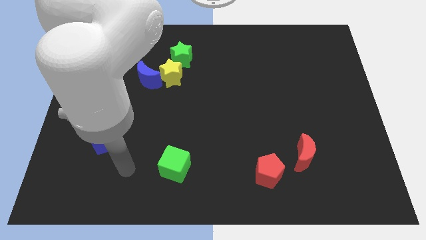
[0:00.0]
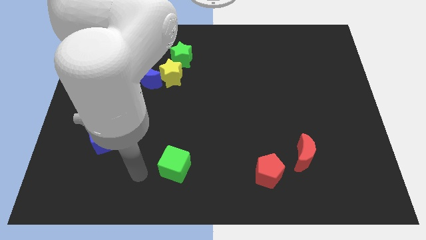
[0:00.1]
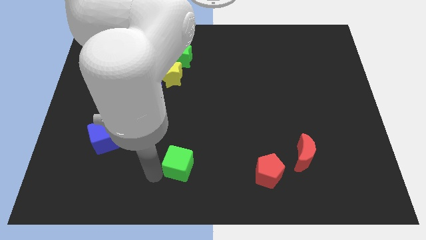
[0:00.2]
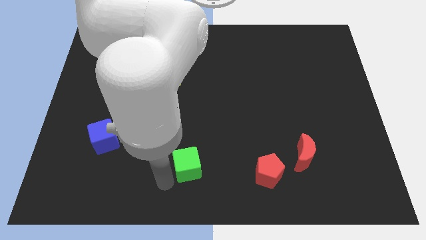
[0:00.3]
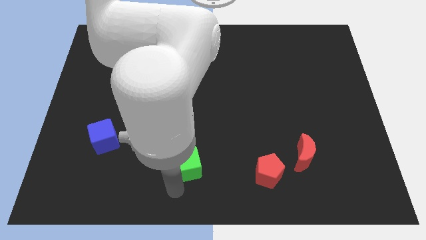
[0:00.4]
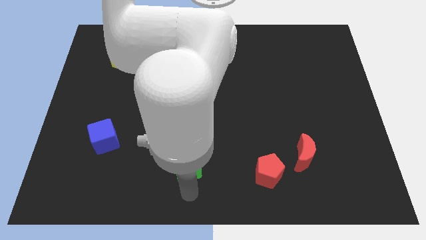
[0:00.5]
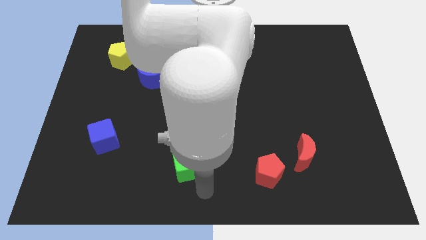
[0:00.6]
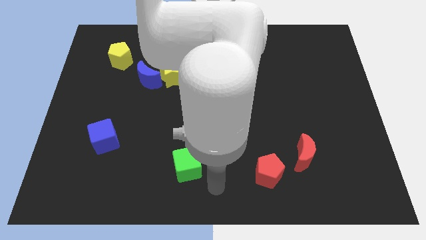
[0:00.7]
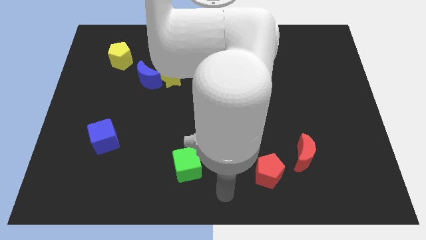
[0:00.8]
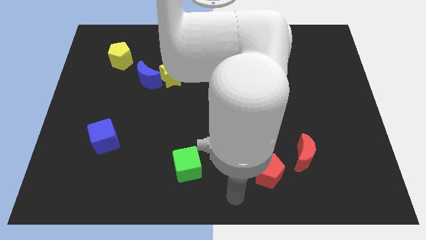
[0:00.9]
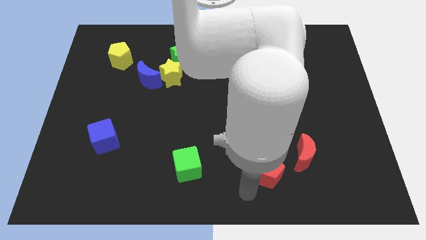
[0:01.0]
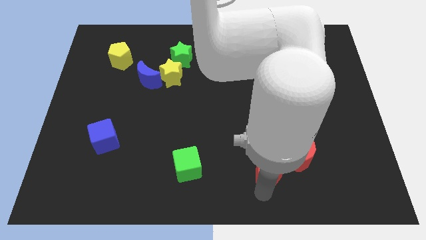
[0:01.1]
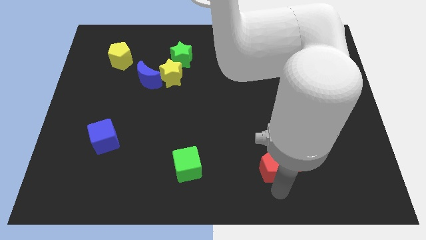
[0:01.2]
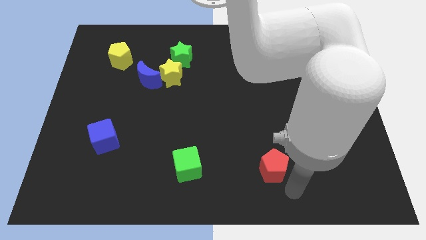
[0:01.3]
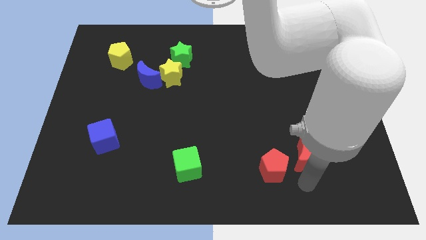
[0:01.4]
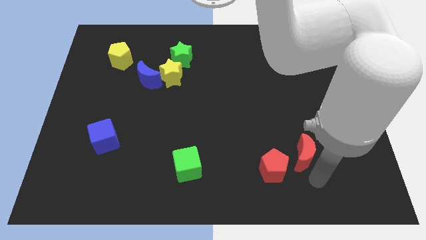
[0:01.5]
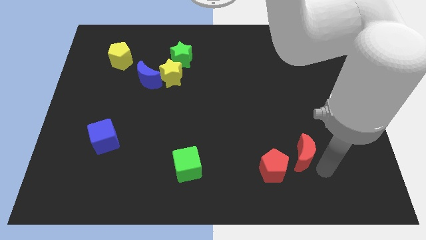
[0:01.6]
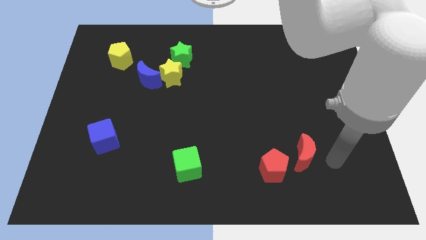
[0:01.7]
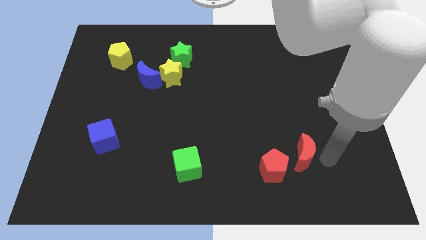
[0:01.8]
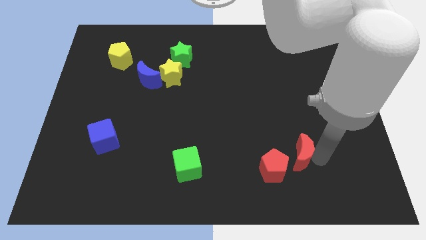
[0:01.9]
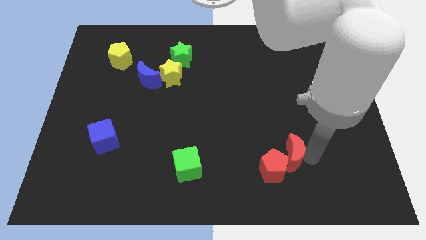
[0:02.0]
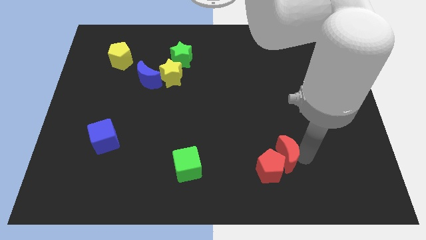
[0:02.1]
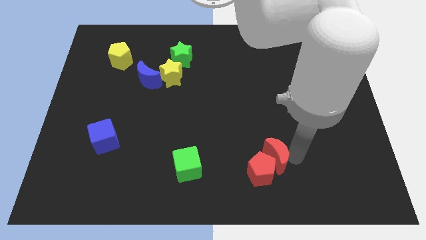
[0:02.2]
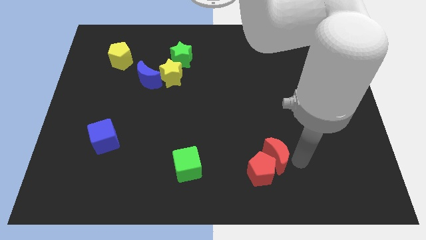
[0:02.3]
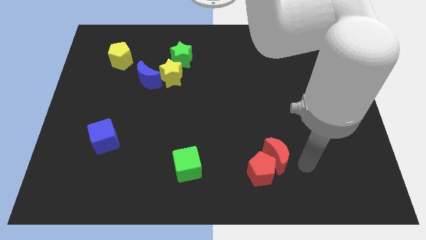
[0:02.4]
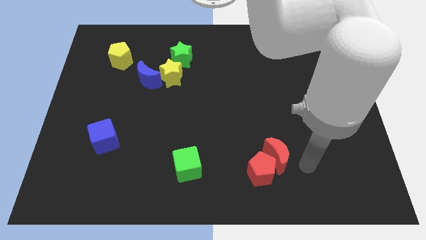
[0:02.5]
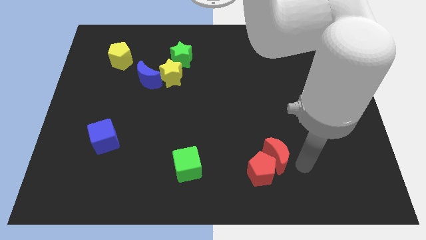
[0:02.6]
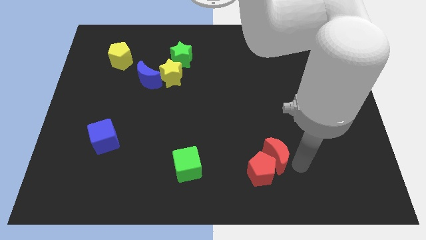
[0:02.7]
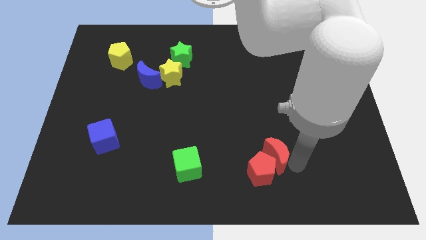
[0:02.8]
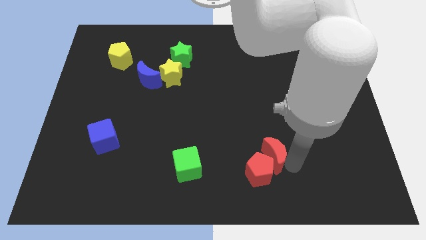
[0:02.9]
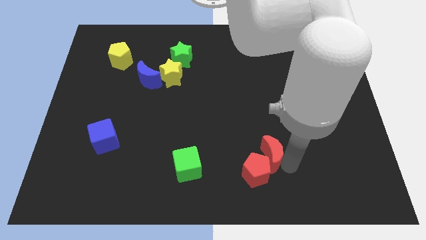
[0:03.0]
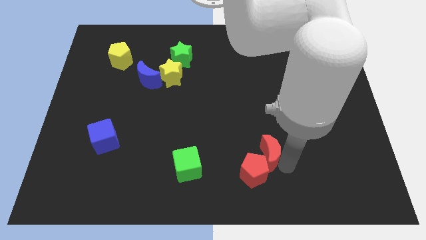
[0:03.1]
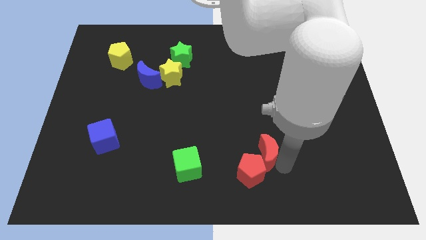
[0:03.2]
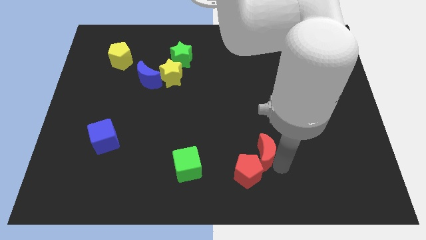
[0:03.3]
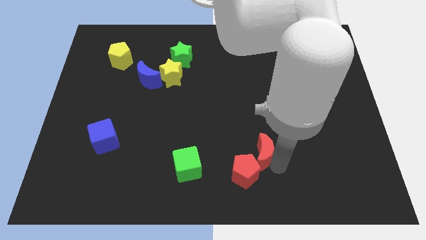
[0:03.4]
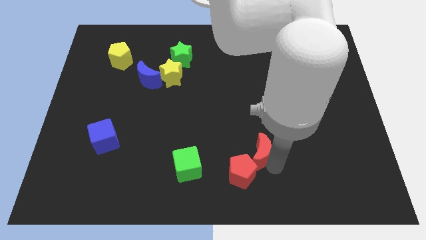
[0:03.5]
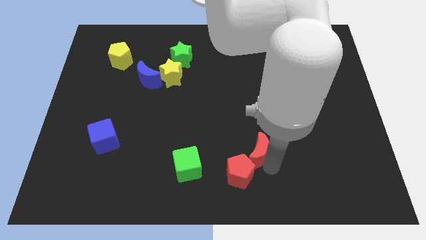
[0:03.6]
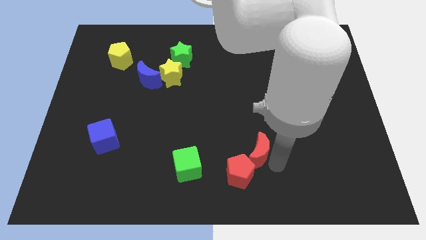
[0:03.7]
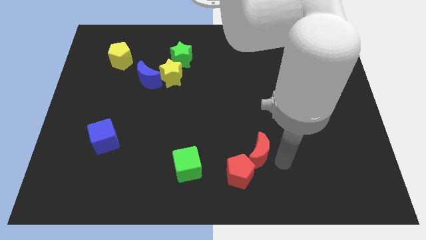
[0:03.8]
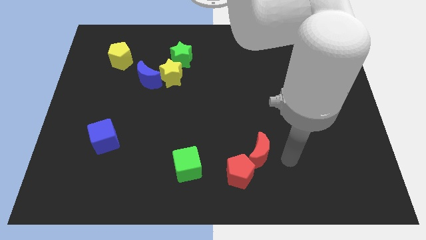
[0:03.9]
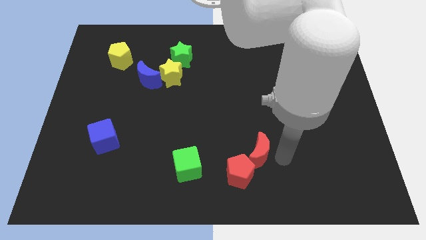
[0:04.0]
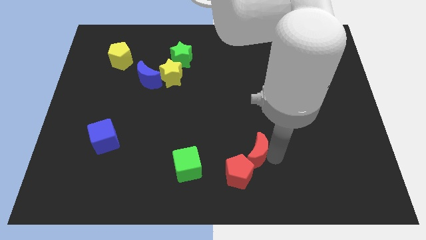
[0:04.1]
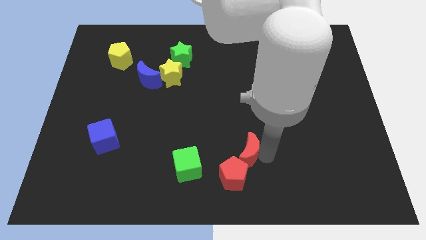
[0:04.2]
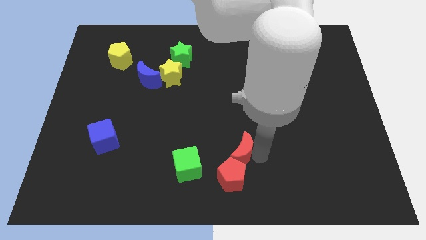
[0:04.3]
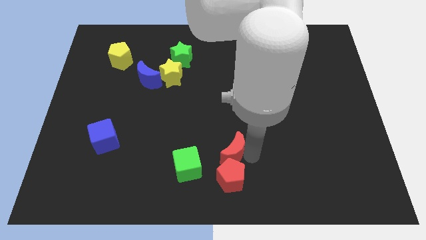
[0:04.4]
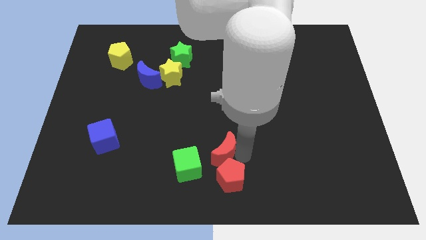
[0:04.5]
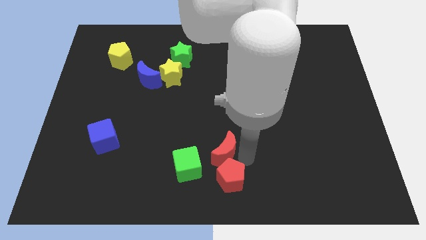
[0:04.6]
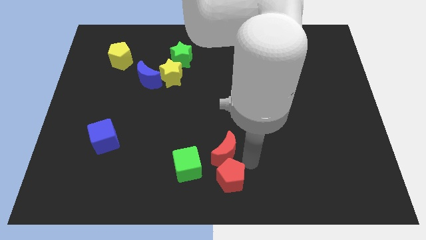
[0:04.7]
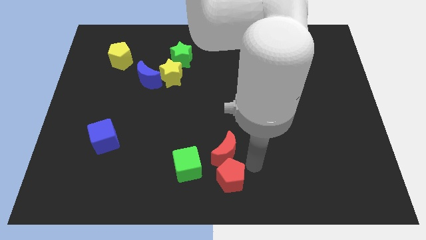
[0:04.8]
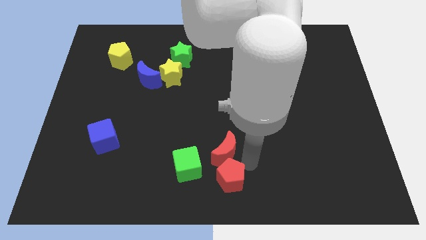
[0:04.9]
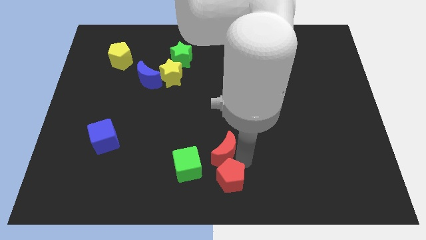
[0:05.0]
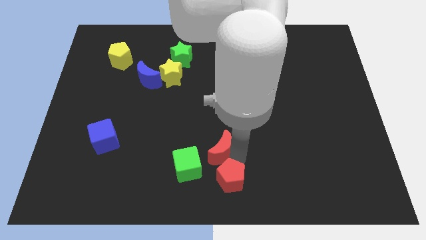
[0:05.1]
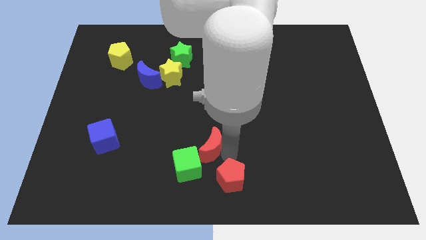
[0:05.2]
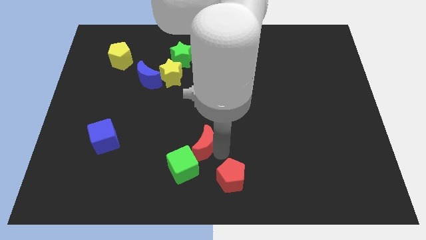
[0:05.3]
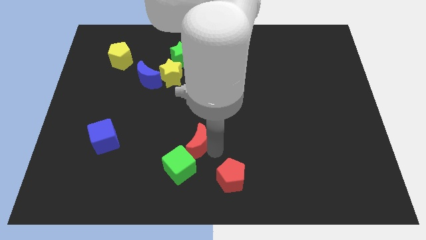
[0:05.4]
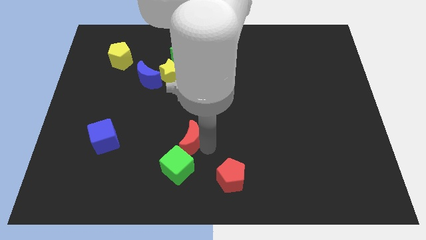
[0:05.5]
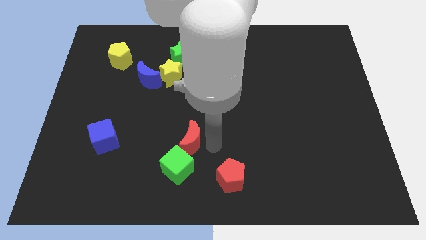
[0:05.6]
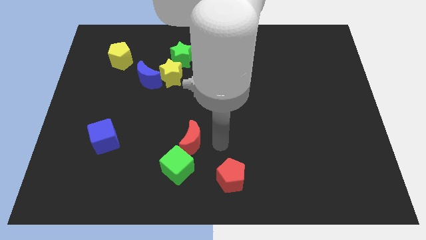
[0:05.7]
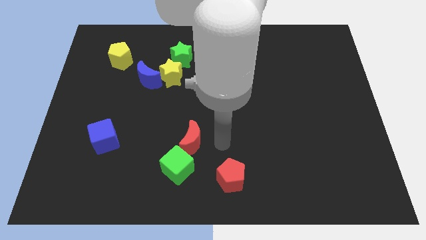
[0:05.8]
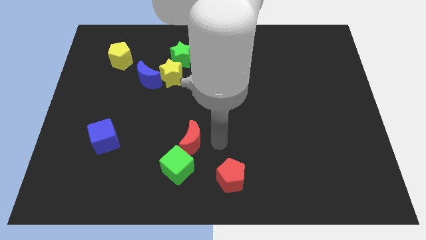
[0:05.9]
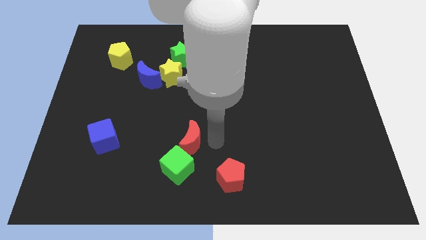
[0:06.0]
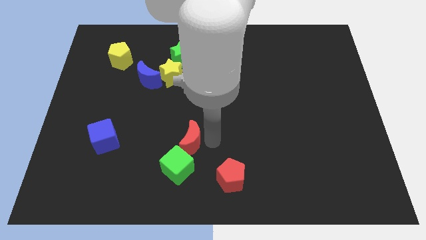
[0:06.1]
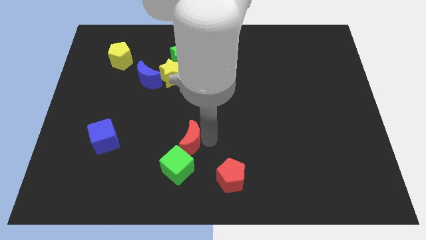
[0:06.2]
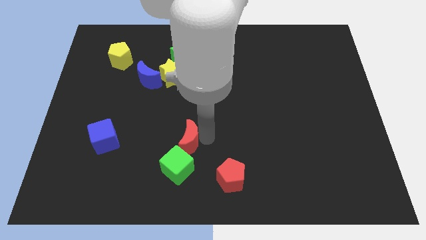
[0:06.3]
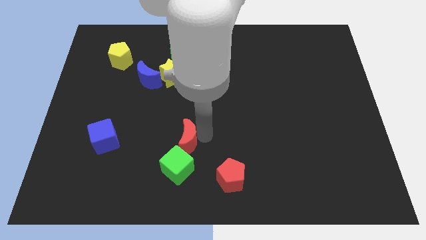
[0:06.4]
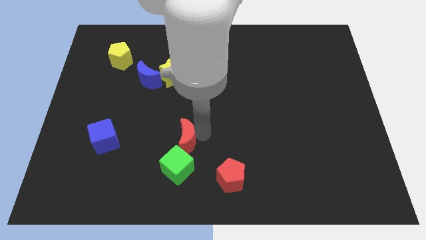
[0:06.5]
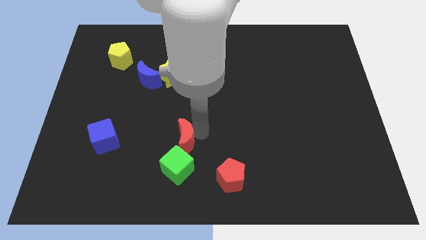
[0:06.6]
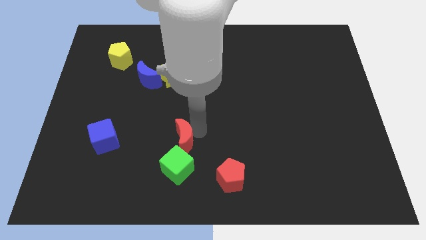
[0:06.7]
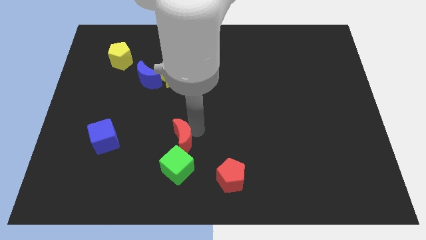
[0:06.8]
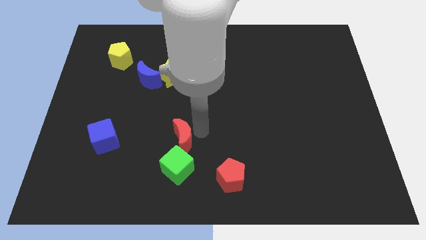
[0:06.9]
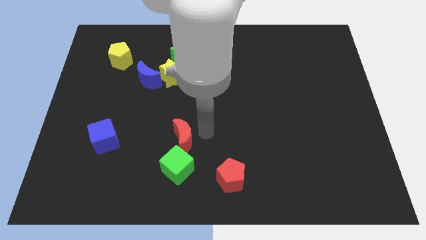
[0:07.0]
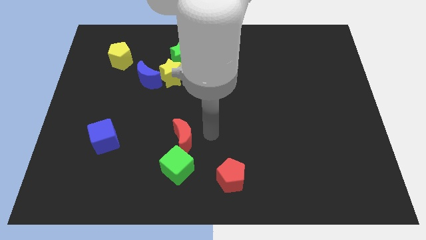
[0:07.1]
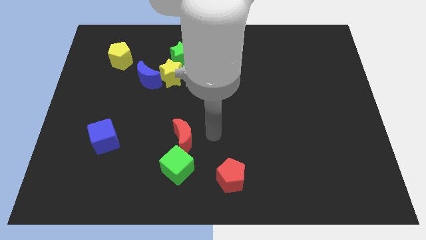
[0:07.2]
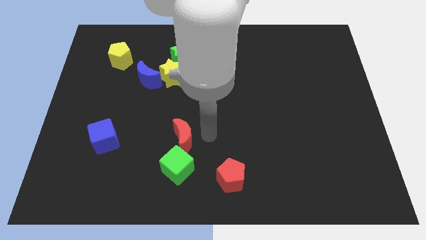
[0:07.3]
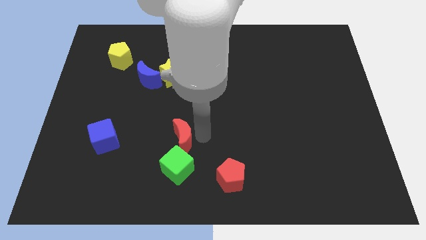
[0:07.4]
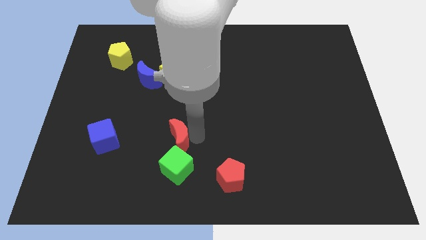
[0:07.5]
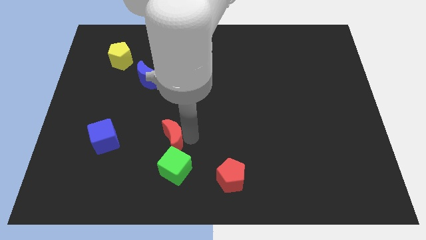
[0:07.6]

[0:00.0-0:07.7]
slide the red moon to the right side of the blue cube
